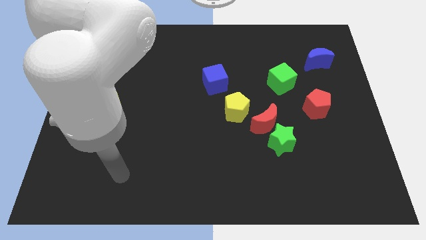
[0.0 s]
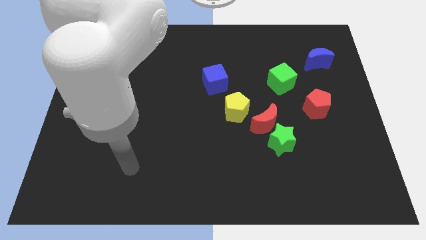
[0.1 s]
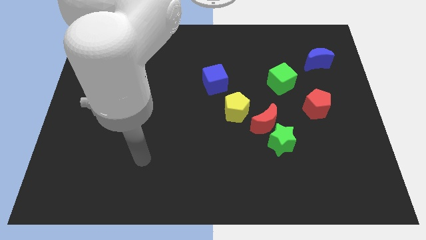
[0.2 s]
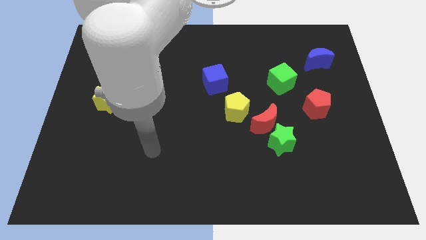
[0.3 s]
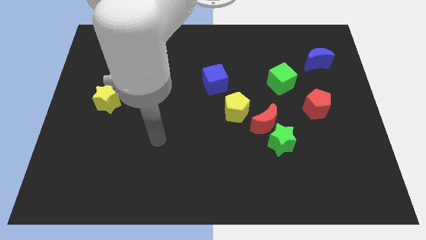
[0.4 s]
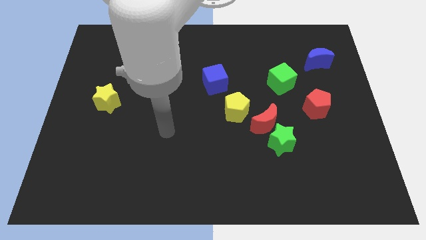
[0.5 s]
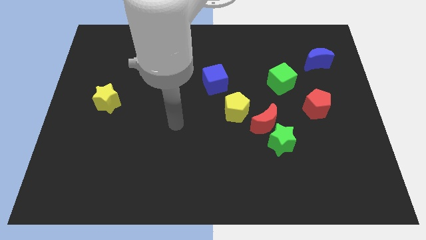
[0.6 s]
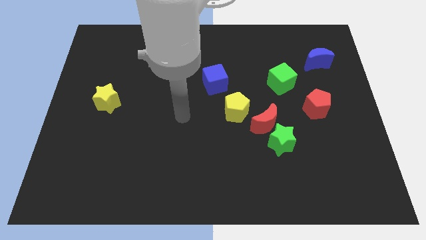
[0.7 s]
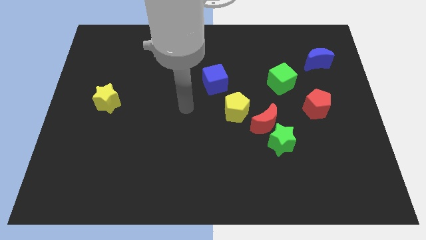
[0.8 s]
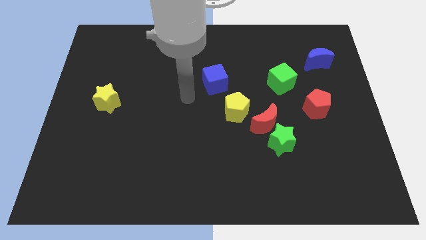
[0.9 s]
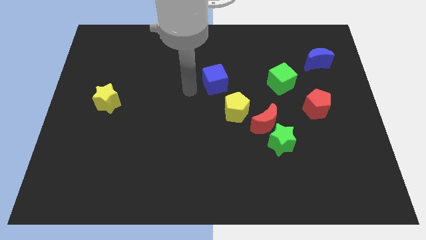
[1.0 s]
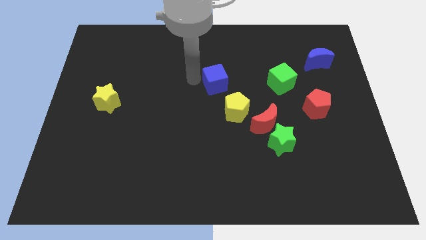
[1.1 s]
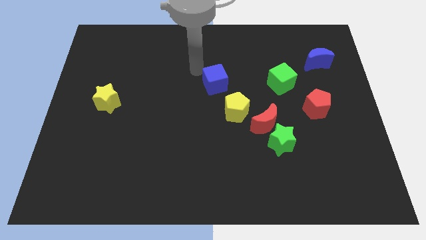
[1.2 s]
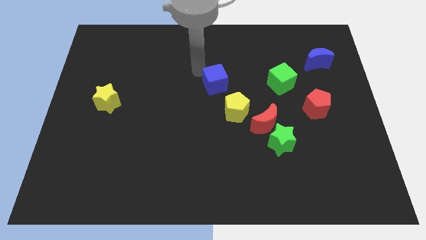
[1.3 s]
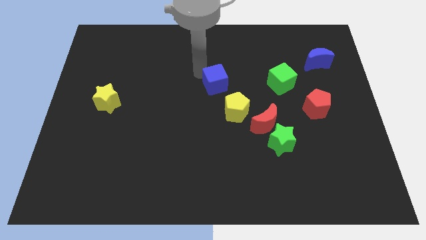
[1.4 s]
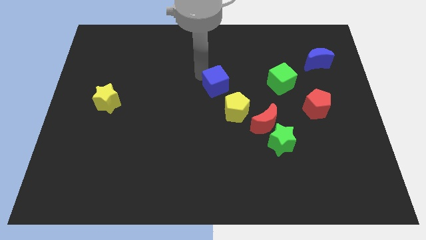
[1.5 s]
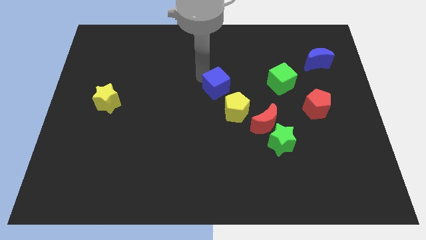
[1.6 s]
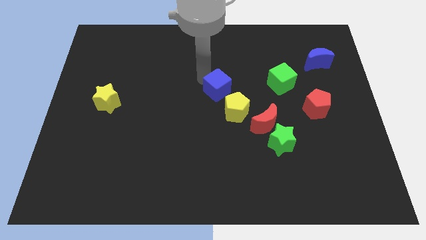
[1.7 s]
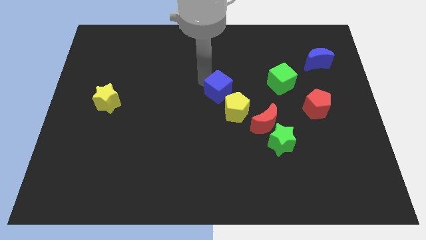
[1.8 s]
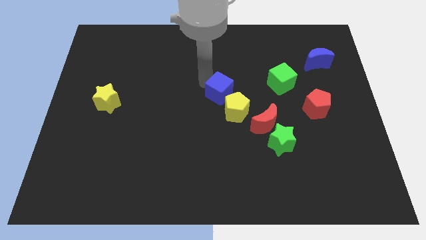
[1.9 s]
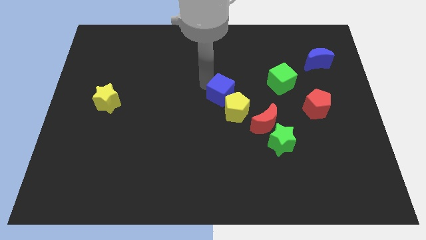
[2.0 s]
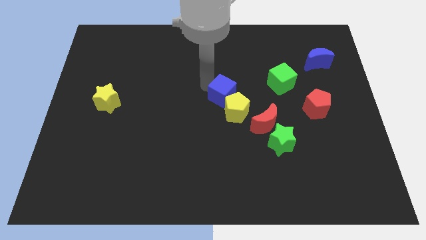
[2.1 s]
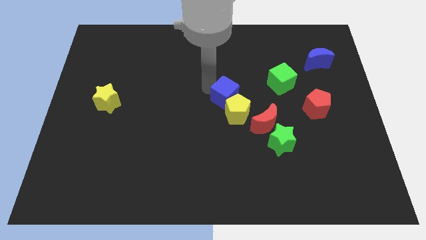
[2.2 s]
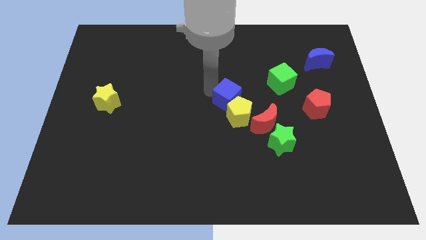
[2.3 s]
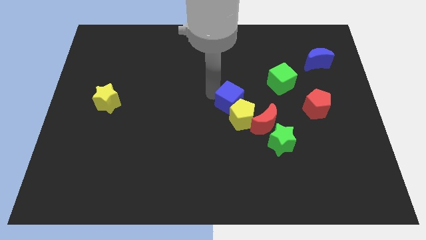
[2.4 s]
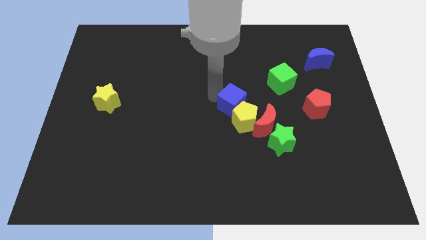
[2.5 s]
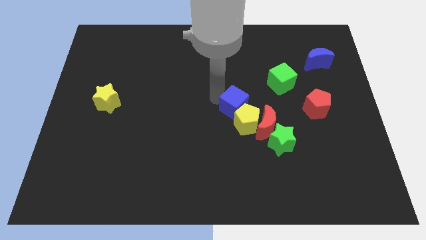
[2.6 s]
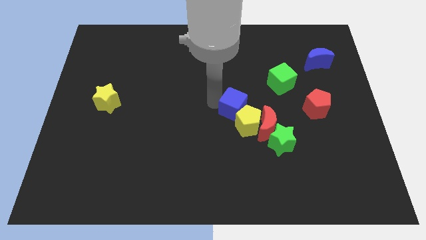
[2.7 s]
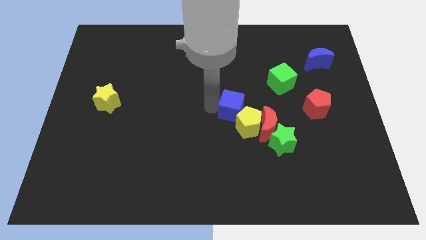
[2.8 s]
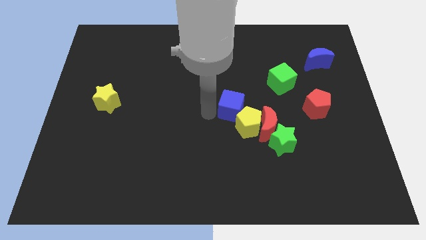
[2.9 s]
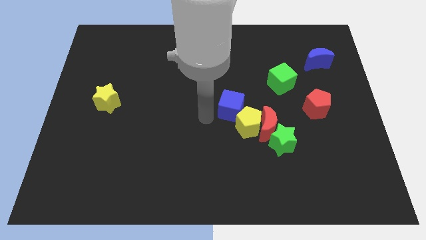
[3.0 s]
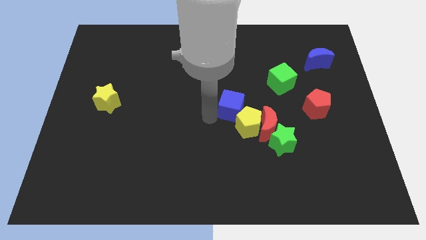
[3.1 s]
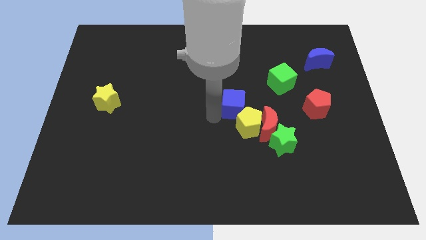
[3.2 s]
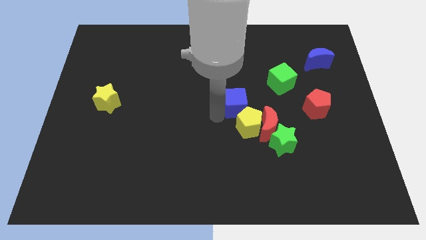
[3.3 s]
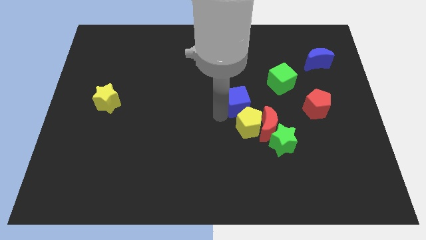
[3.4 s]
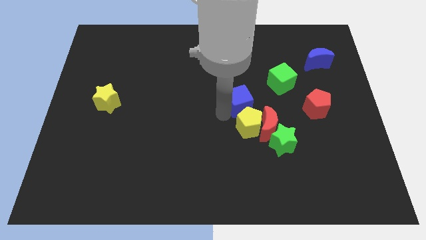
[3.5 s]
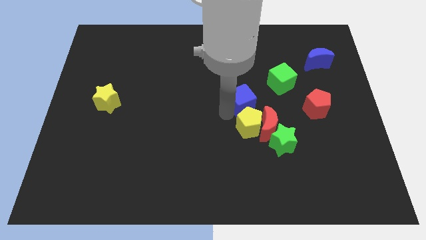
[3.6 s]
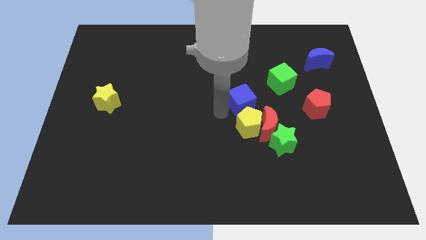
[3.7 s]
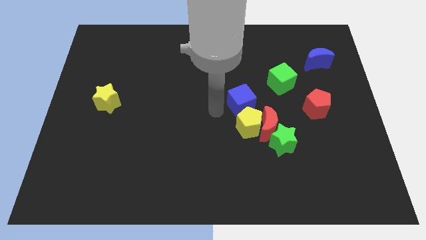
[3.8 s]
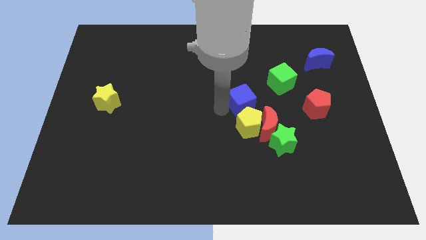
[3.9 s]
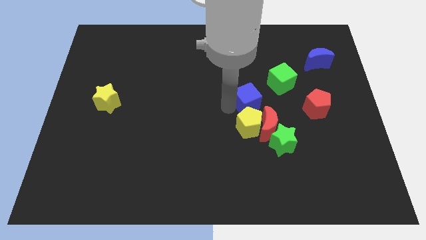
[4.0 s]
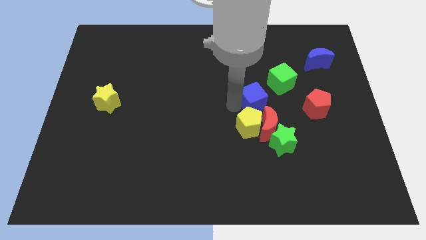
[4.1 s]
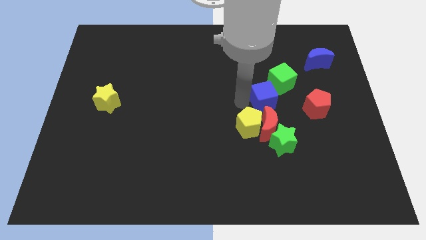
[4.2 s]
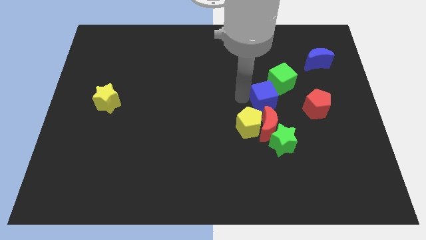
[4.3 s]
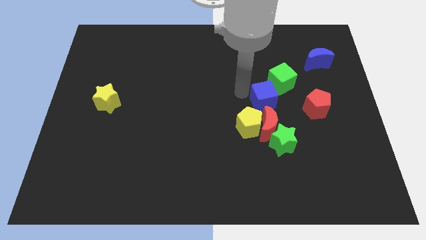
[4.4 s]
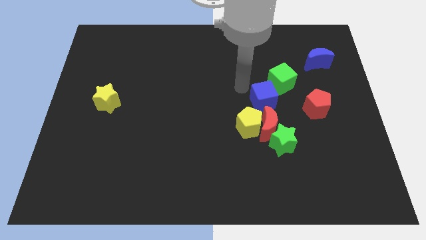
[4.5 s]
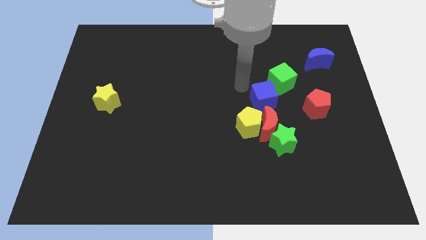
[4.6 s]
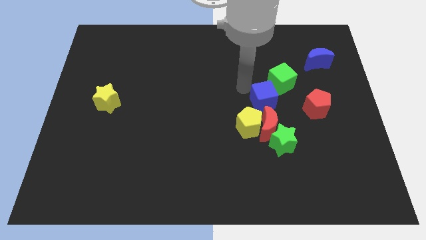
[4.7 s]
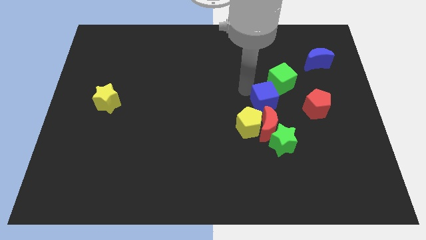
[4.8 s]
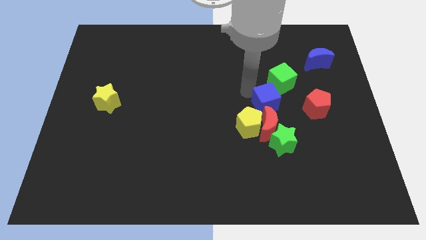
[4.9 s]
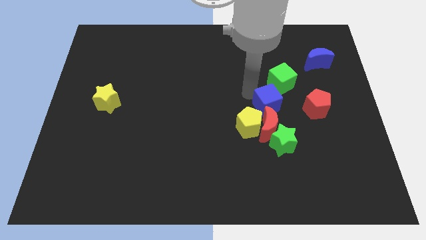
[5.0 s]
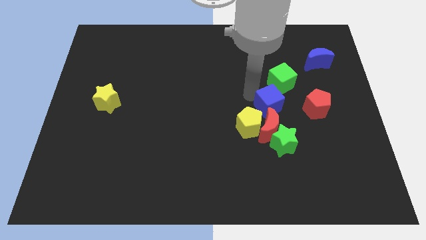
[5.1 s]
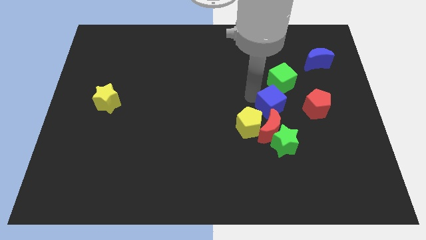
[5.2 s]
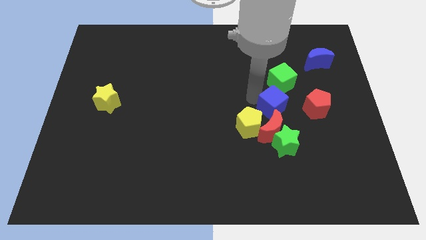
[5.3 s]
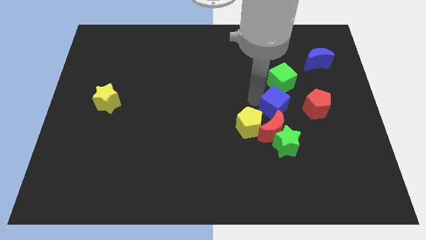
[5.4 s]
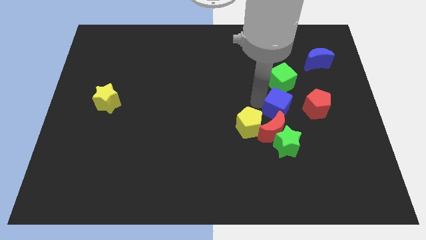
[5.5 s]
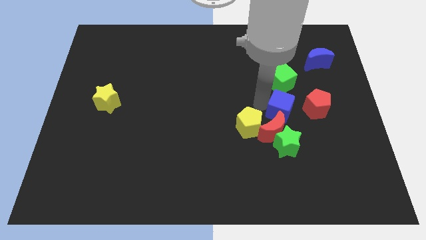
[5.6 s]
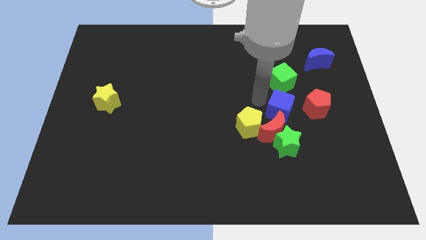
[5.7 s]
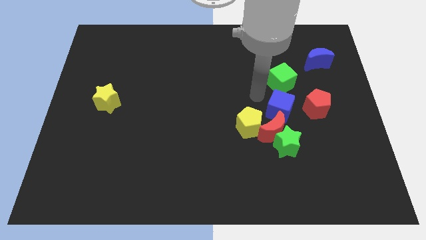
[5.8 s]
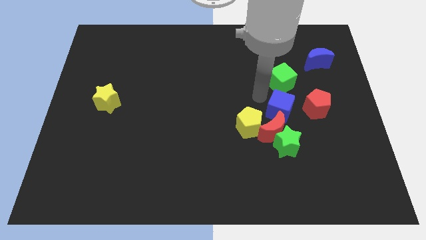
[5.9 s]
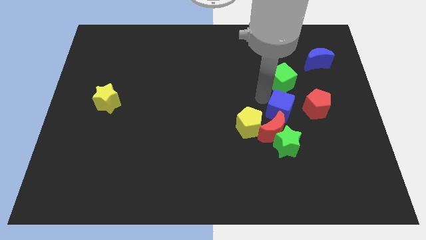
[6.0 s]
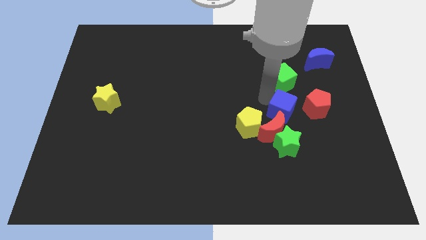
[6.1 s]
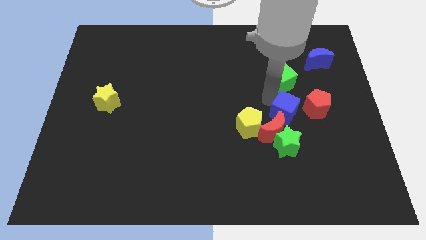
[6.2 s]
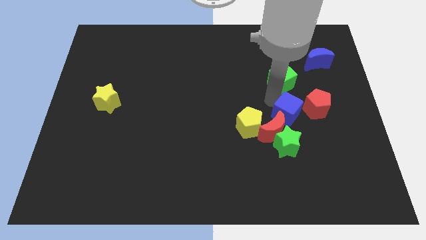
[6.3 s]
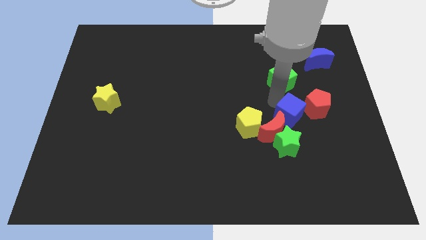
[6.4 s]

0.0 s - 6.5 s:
move the blue cube to the top right of the green star
